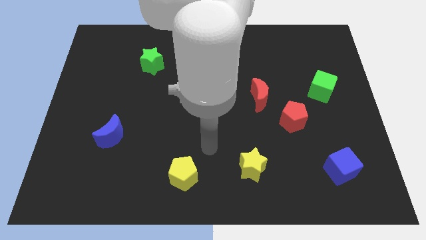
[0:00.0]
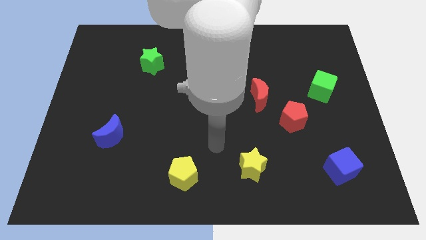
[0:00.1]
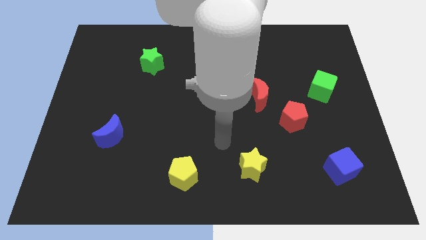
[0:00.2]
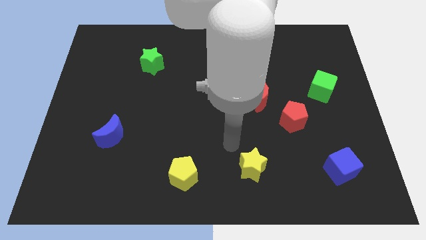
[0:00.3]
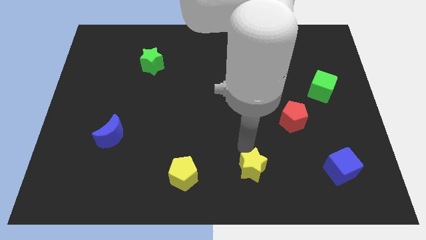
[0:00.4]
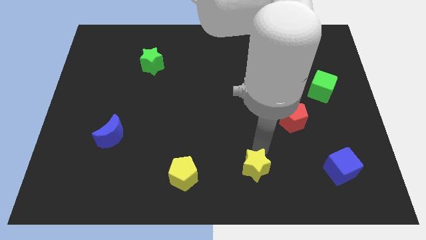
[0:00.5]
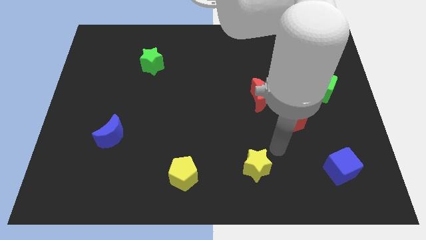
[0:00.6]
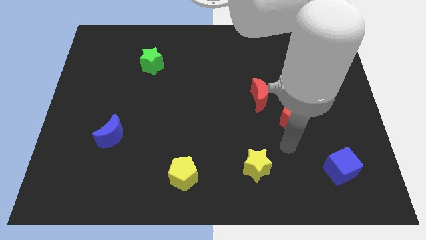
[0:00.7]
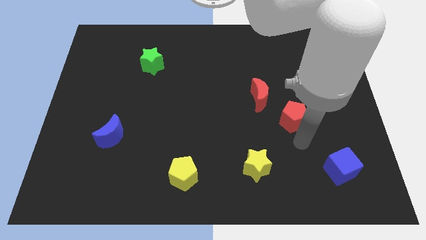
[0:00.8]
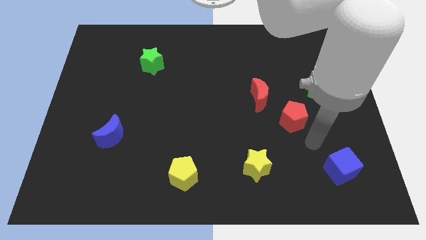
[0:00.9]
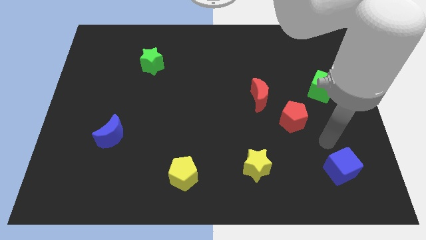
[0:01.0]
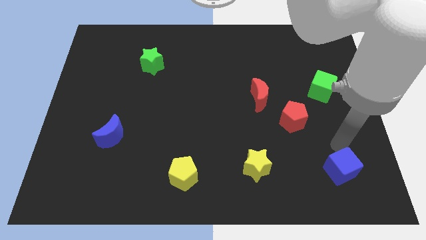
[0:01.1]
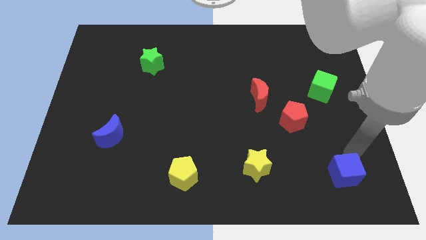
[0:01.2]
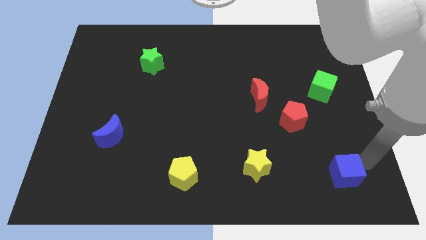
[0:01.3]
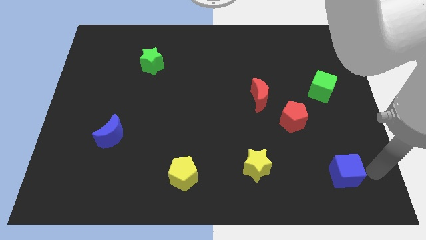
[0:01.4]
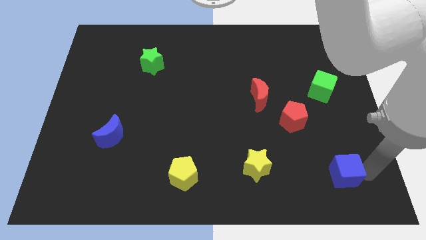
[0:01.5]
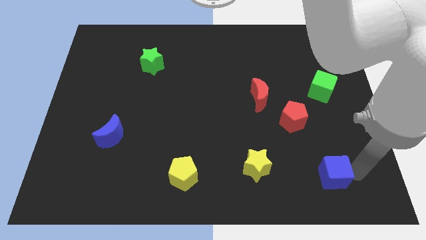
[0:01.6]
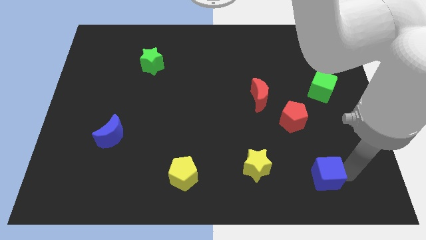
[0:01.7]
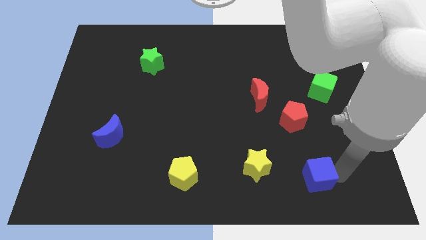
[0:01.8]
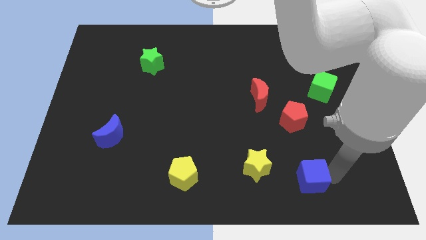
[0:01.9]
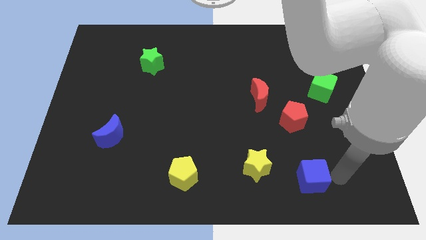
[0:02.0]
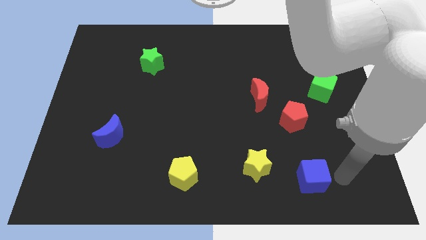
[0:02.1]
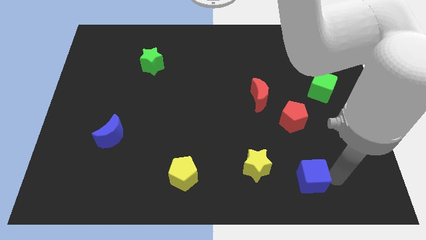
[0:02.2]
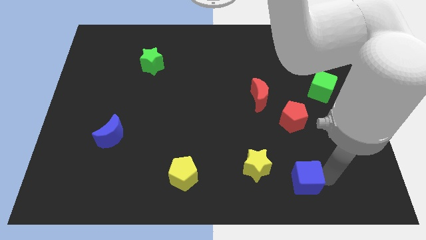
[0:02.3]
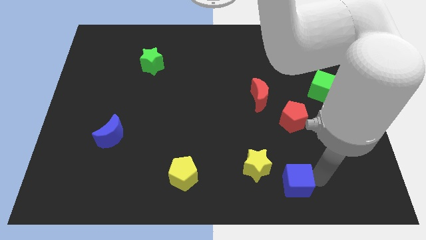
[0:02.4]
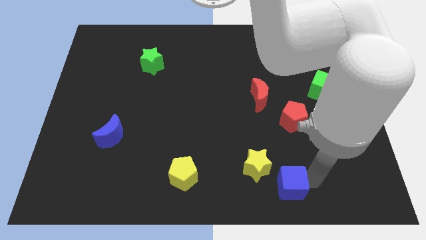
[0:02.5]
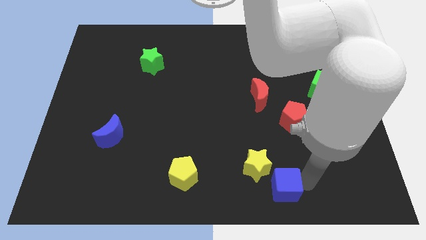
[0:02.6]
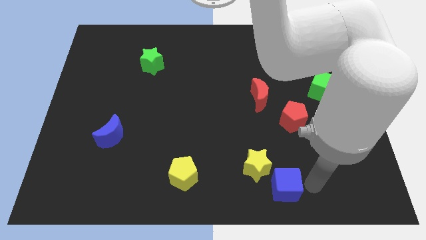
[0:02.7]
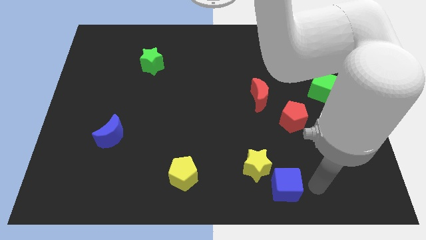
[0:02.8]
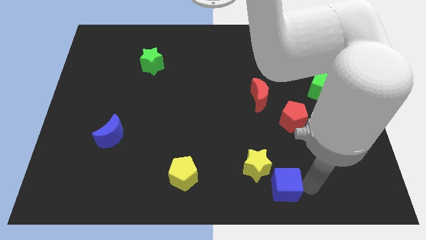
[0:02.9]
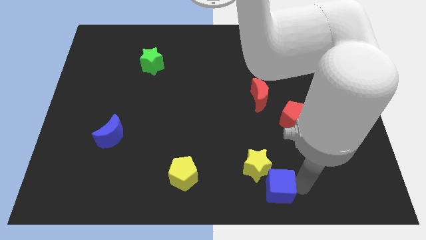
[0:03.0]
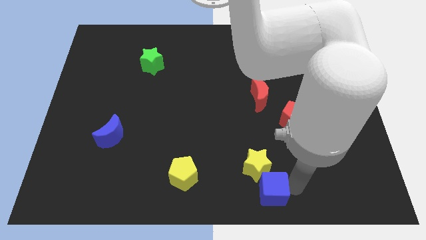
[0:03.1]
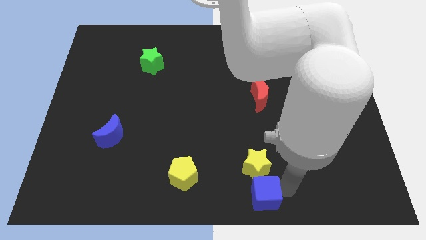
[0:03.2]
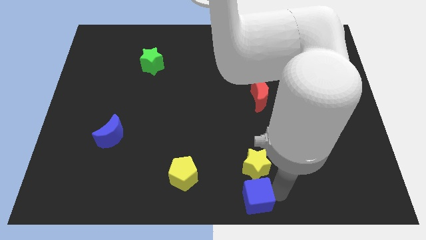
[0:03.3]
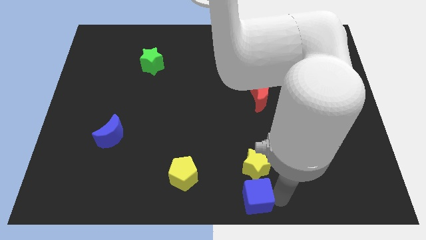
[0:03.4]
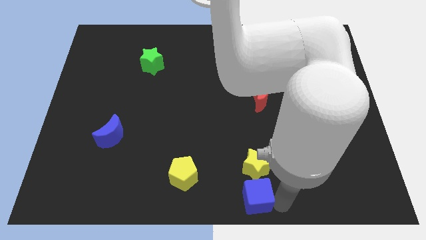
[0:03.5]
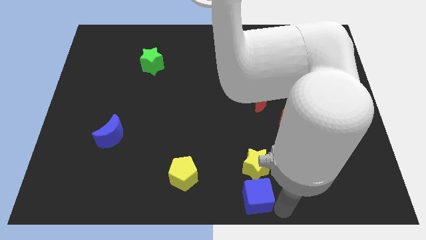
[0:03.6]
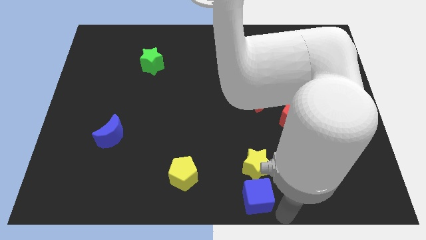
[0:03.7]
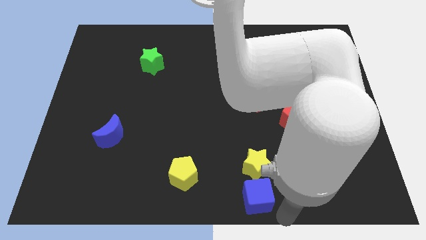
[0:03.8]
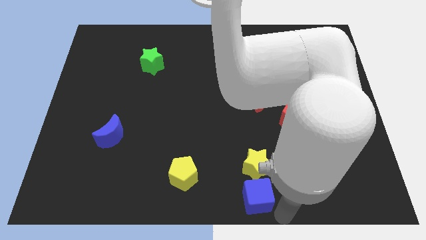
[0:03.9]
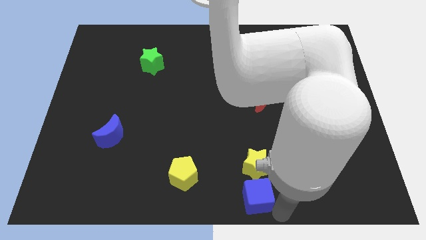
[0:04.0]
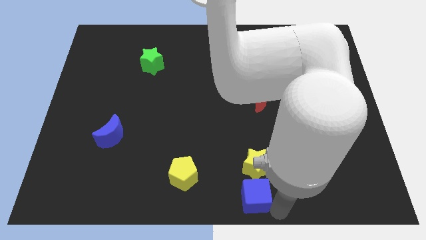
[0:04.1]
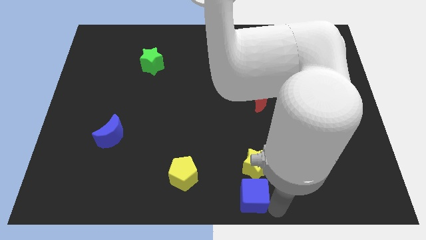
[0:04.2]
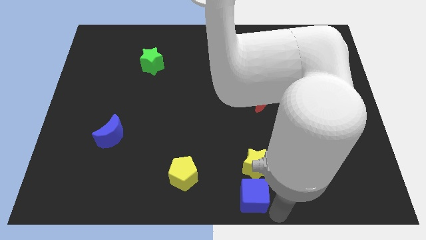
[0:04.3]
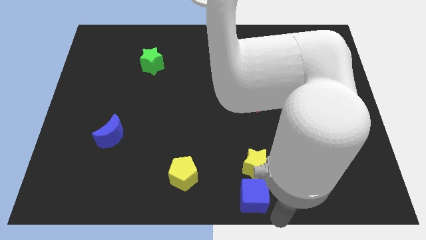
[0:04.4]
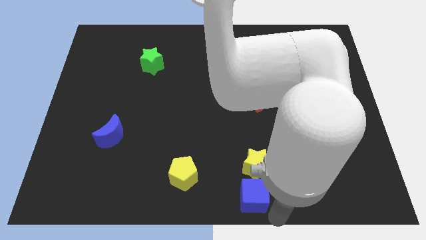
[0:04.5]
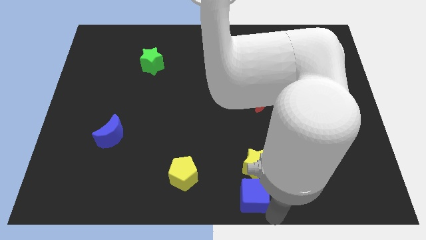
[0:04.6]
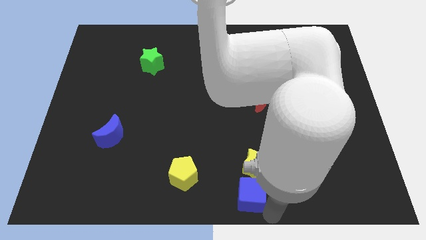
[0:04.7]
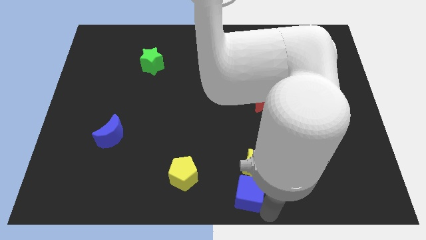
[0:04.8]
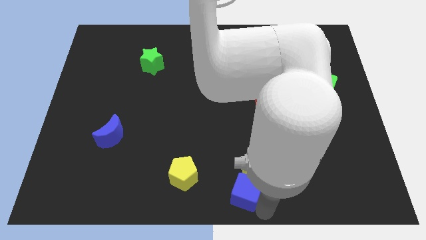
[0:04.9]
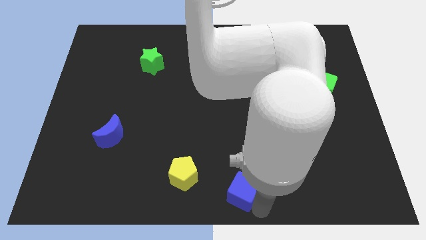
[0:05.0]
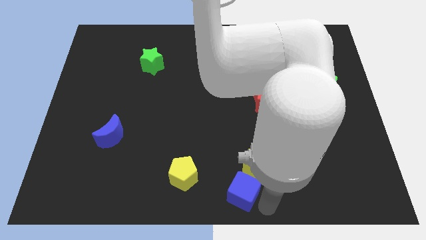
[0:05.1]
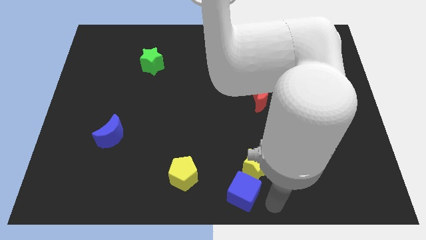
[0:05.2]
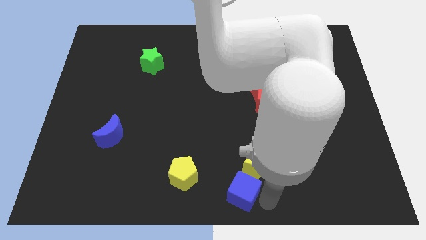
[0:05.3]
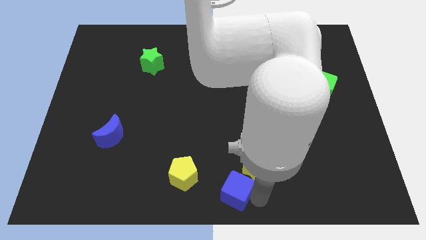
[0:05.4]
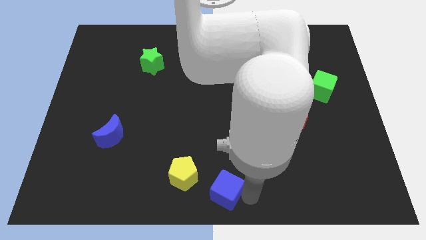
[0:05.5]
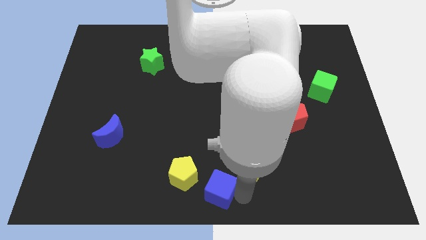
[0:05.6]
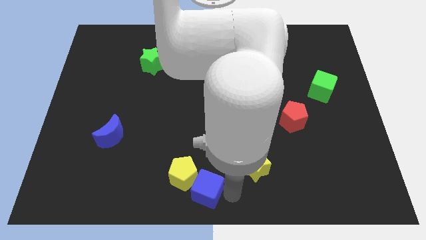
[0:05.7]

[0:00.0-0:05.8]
slide the blue cube to the yellow pentagon

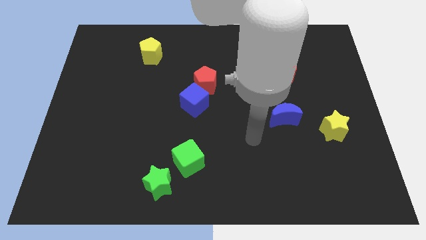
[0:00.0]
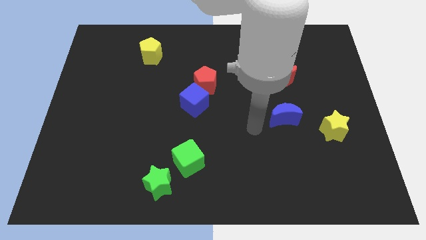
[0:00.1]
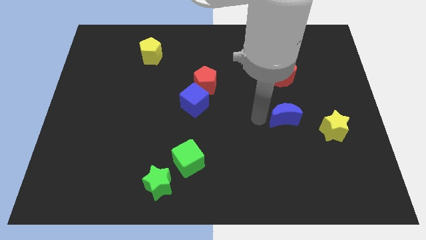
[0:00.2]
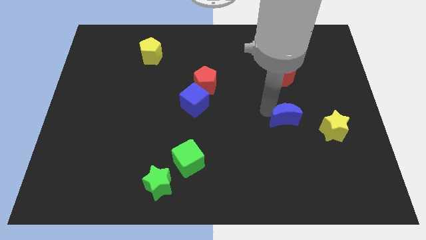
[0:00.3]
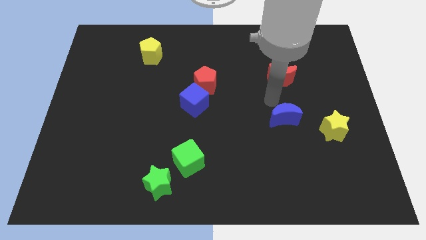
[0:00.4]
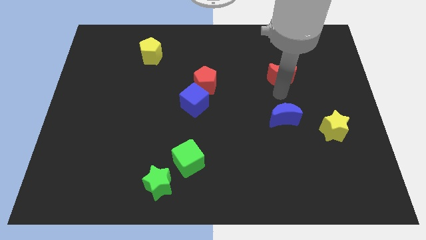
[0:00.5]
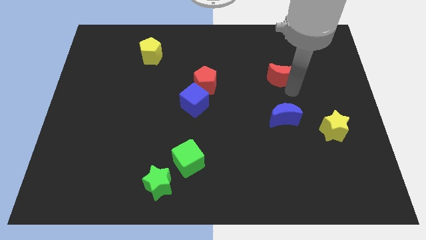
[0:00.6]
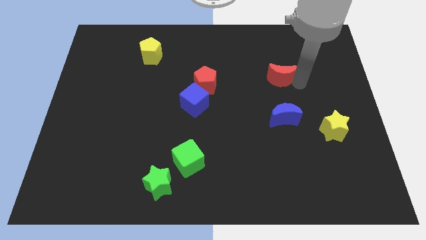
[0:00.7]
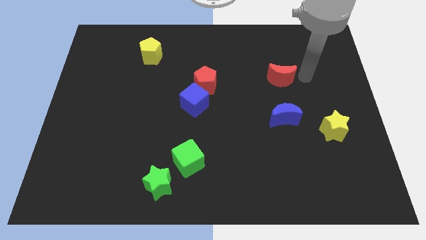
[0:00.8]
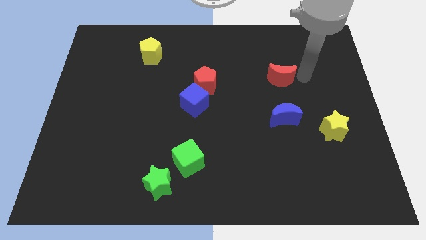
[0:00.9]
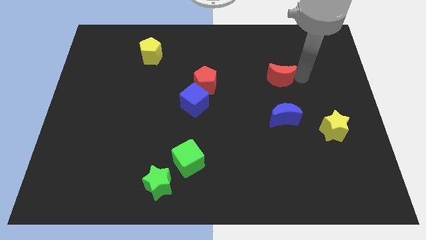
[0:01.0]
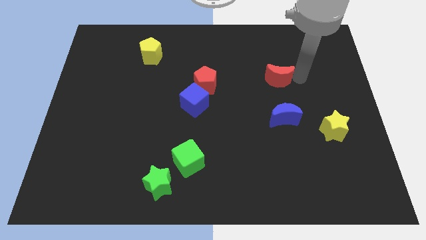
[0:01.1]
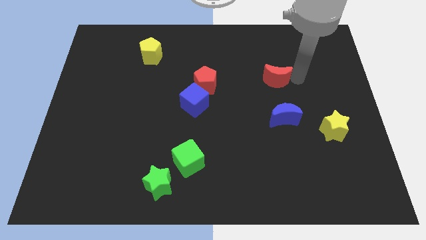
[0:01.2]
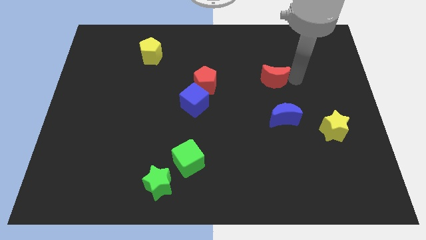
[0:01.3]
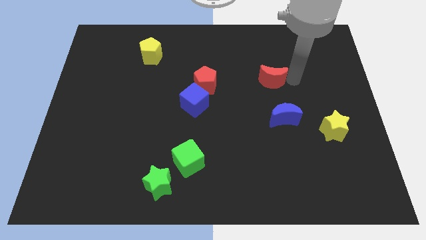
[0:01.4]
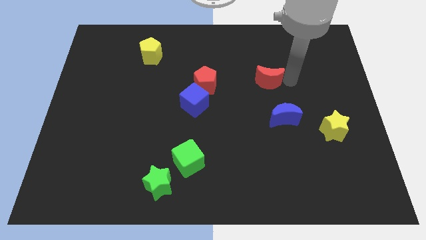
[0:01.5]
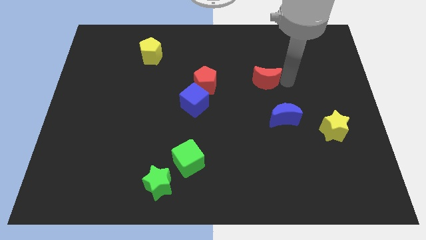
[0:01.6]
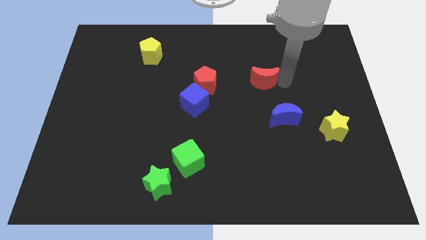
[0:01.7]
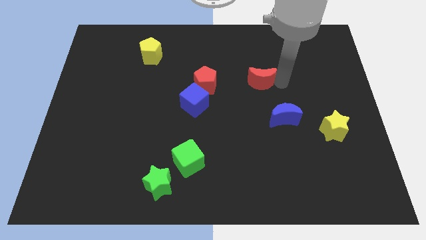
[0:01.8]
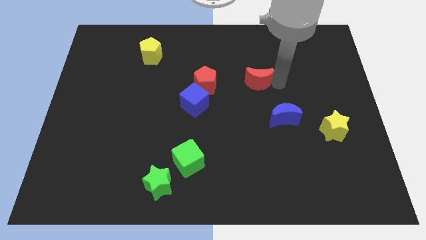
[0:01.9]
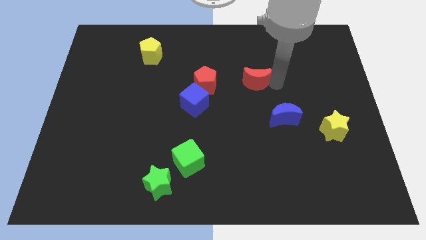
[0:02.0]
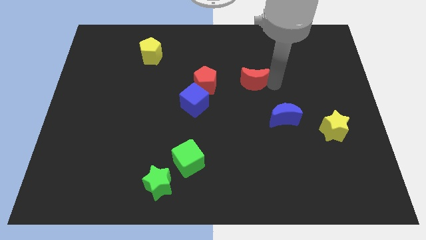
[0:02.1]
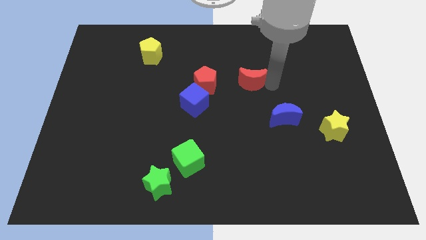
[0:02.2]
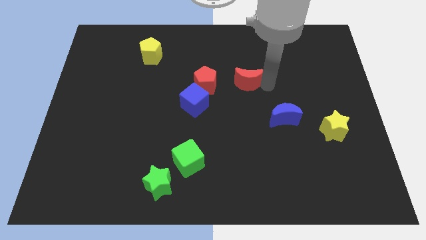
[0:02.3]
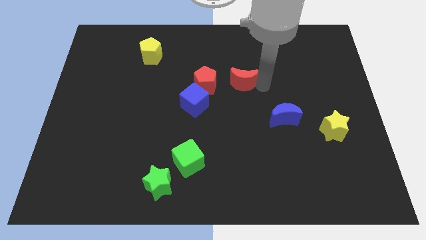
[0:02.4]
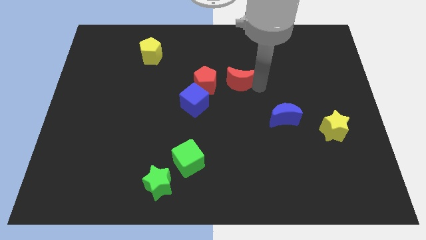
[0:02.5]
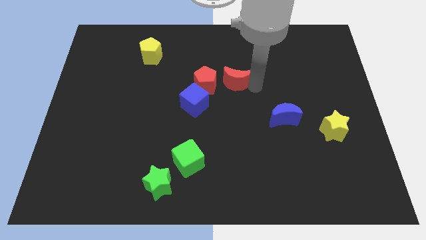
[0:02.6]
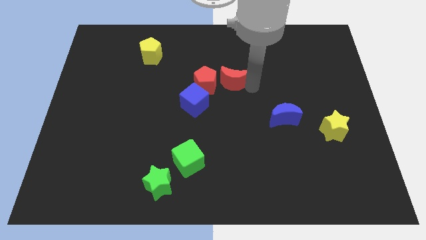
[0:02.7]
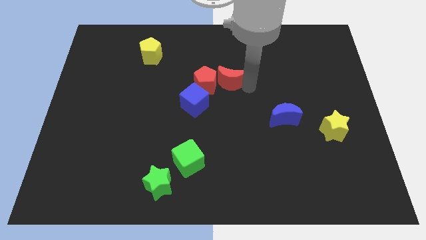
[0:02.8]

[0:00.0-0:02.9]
move the red moon close to the red pentagon
